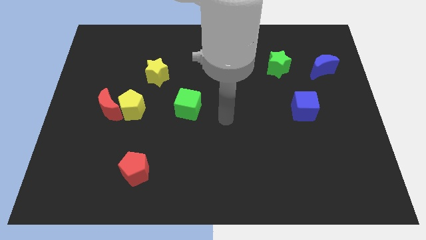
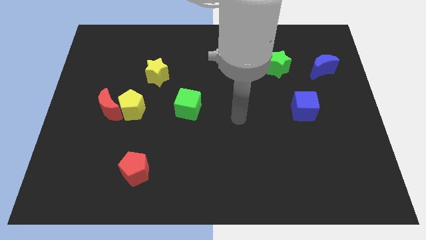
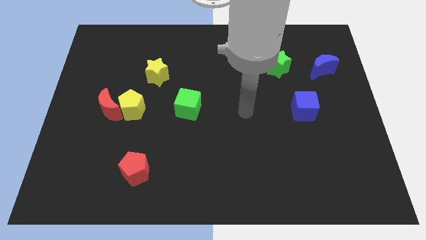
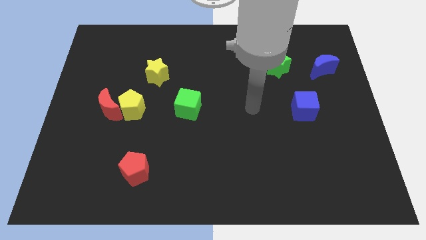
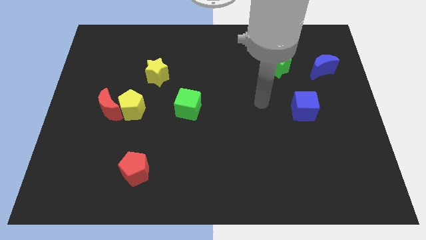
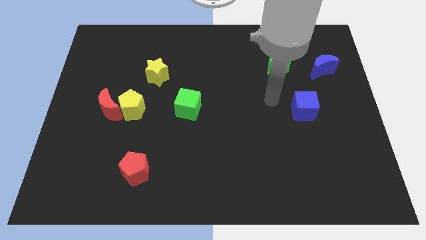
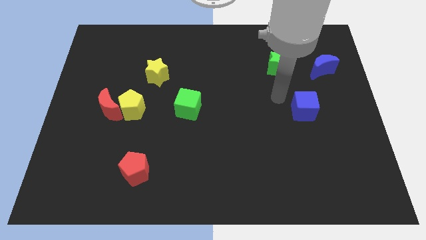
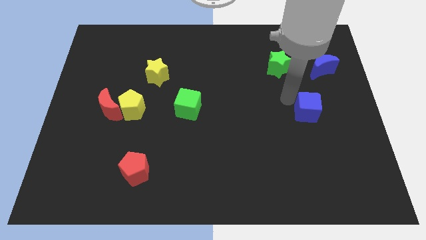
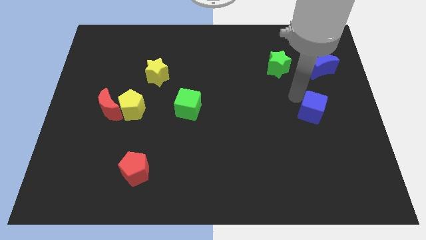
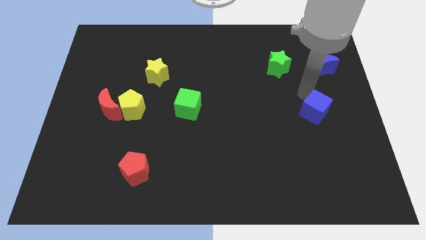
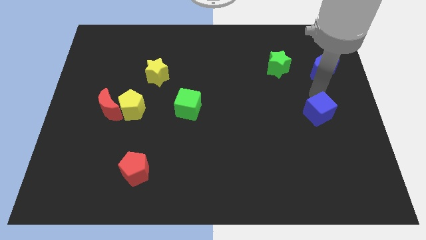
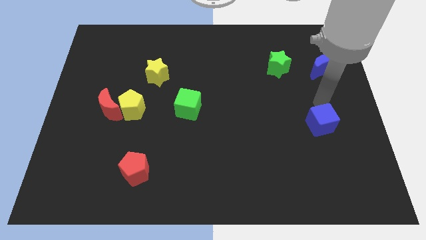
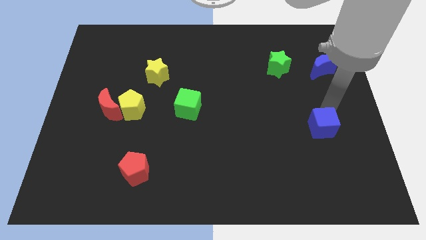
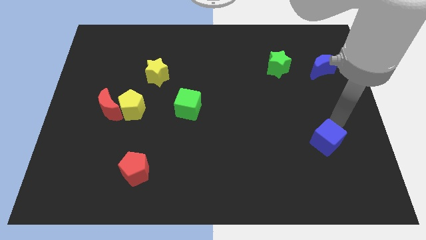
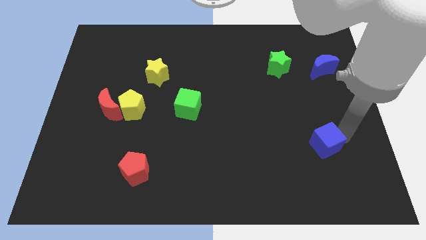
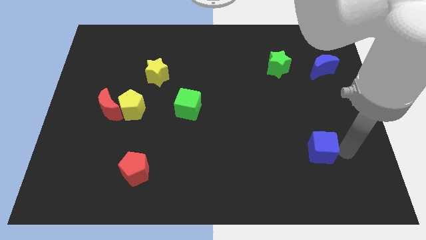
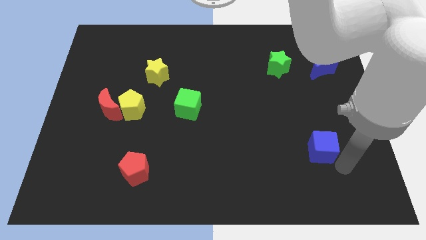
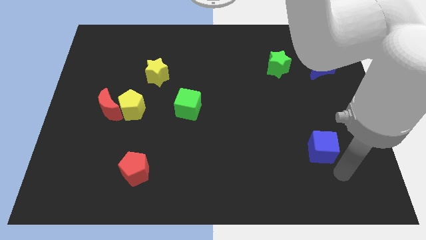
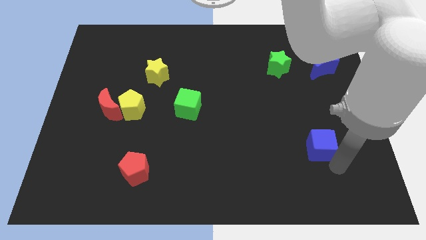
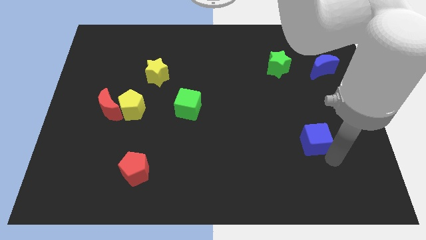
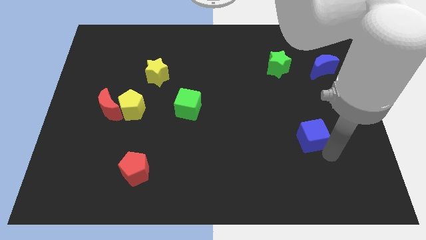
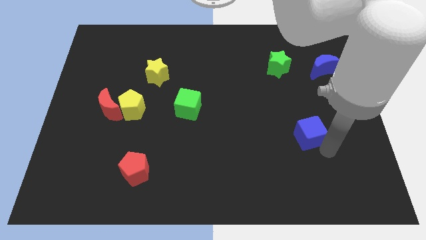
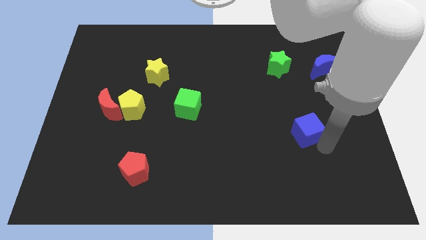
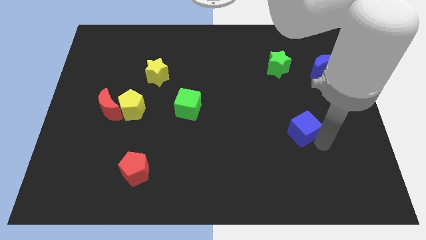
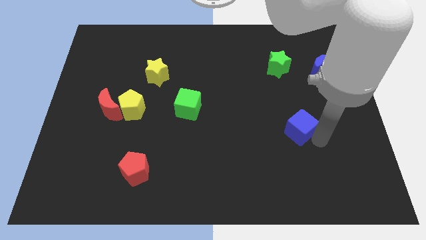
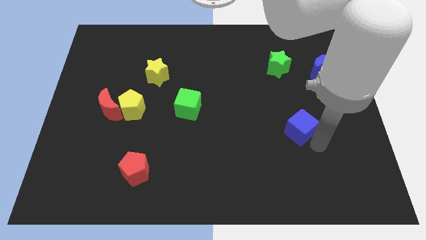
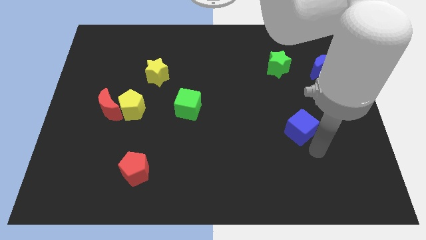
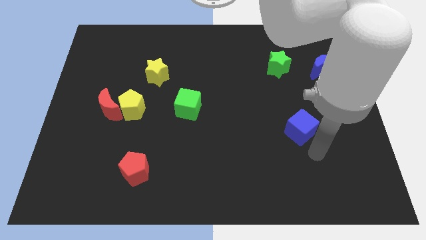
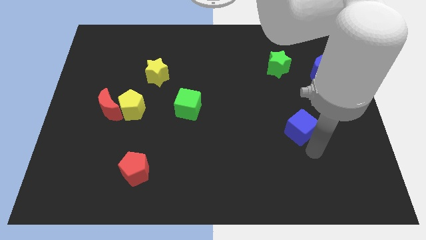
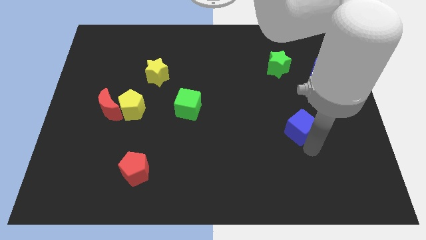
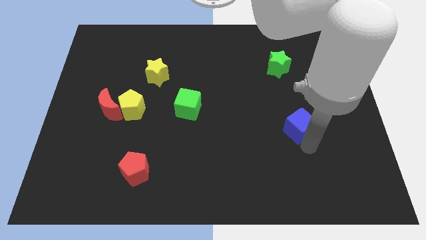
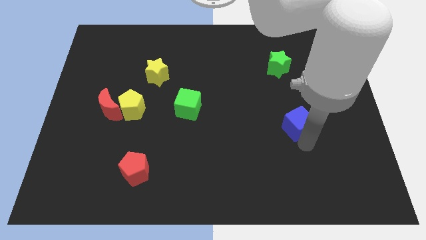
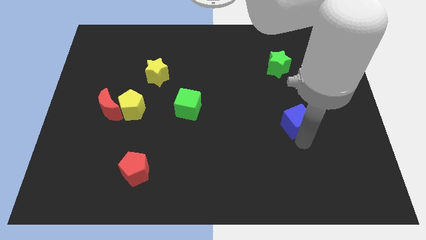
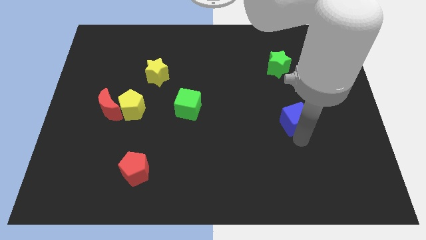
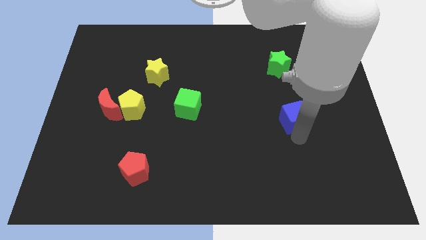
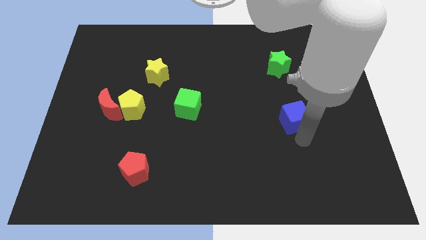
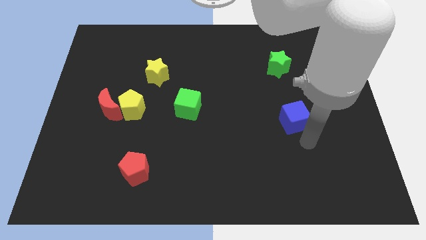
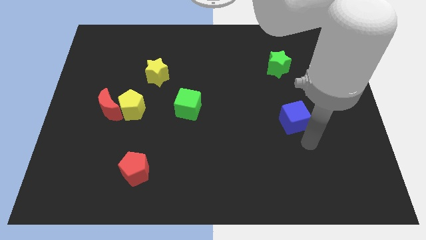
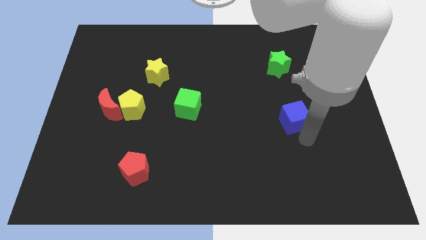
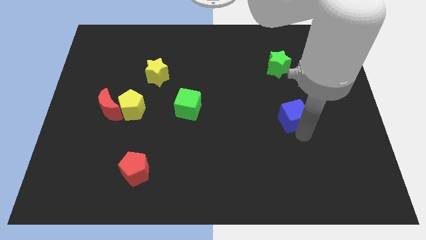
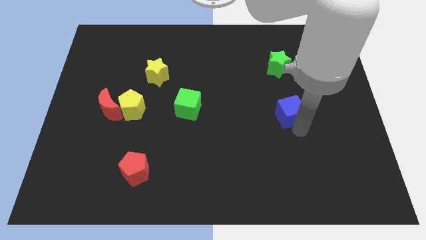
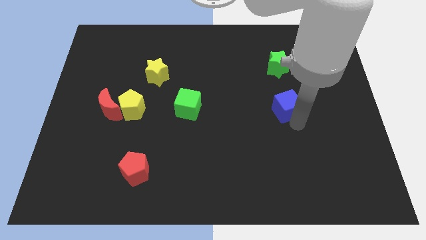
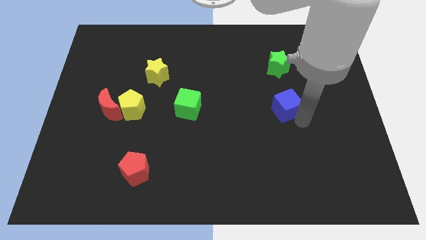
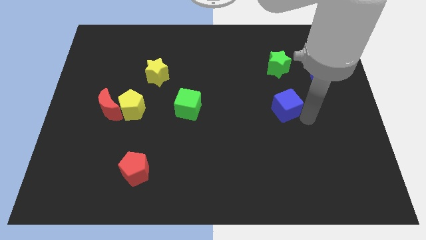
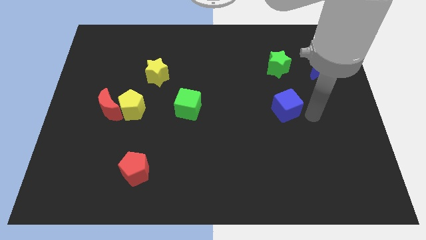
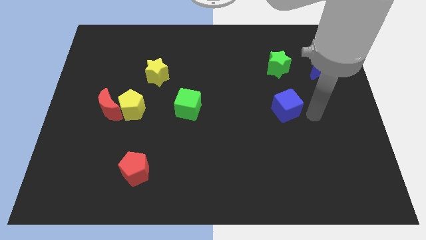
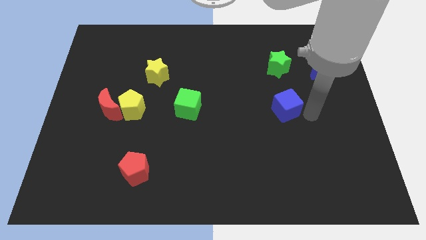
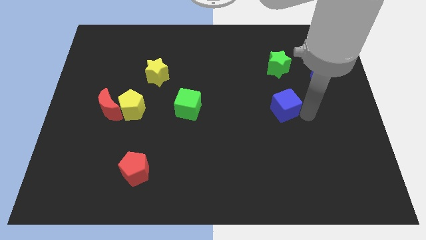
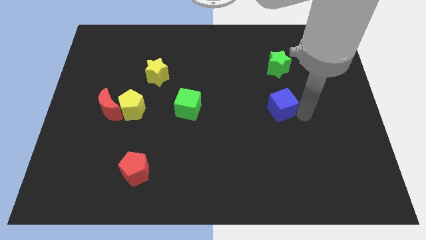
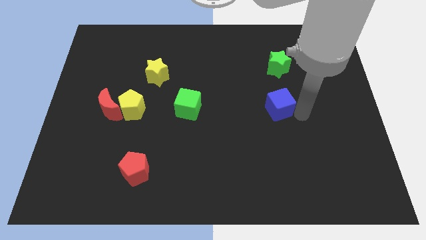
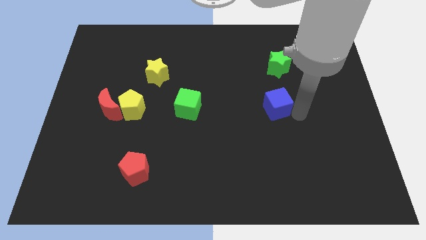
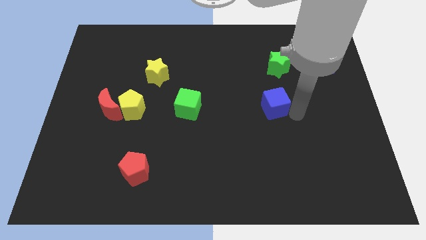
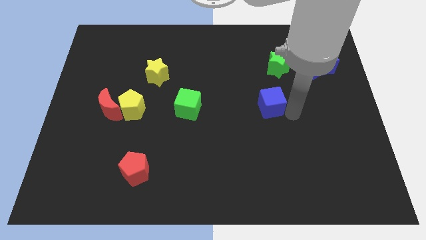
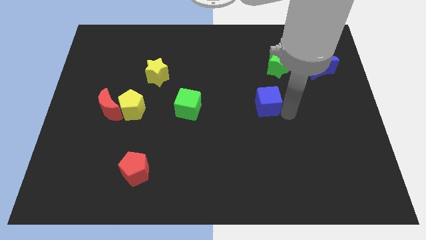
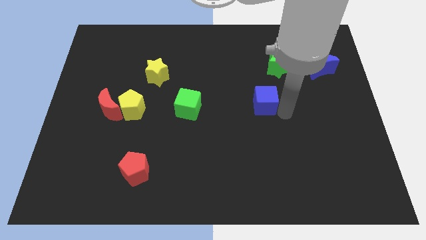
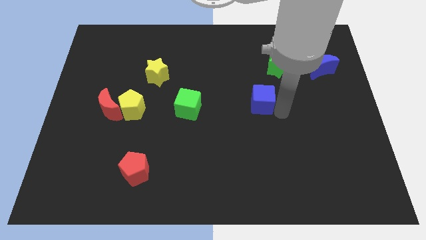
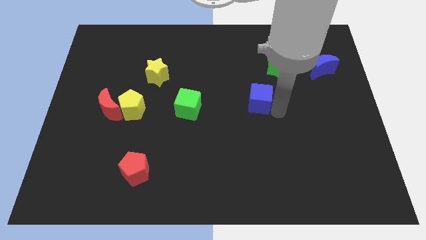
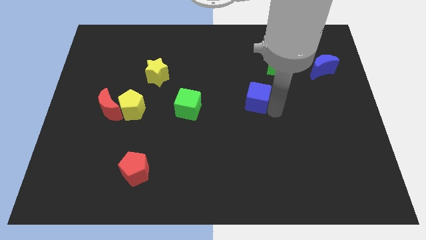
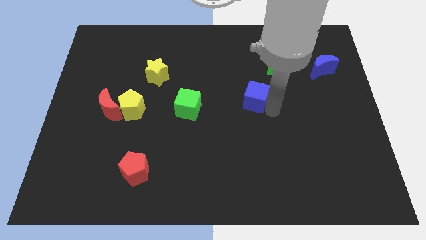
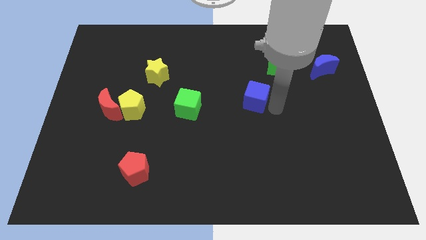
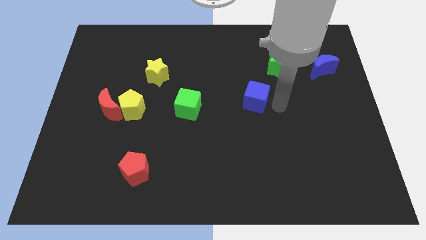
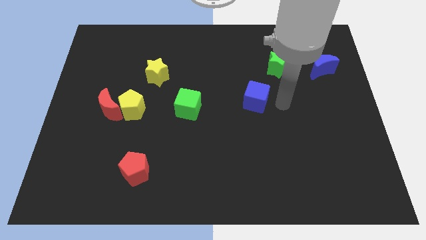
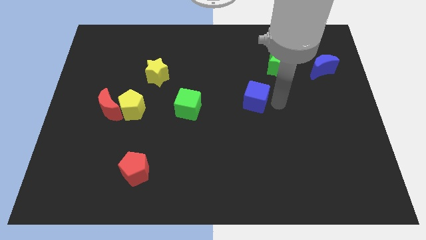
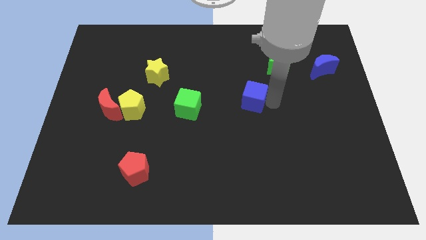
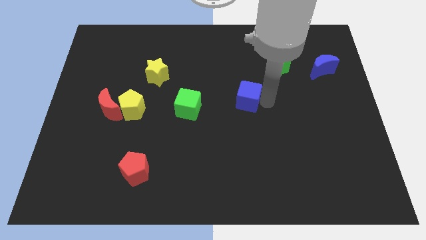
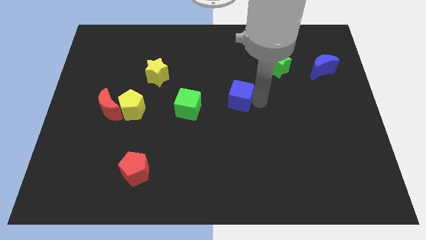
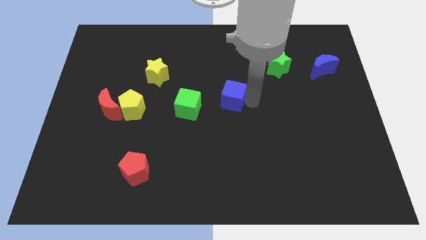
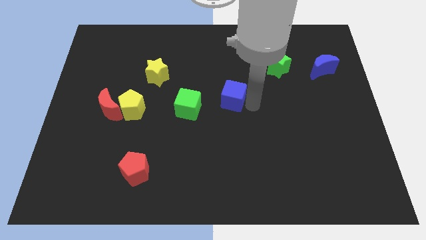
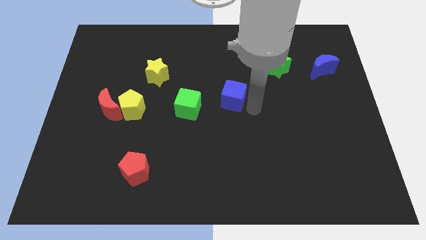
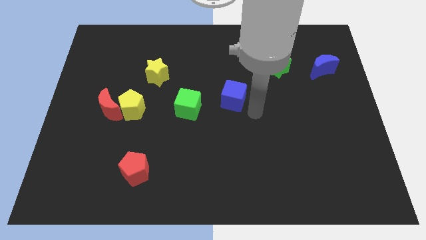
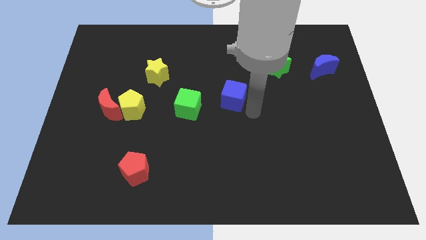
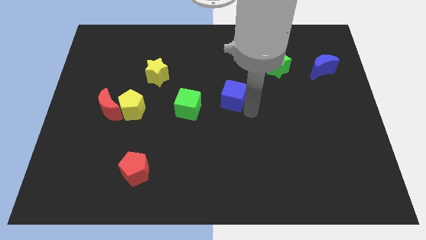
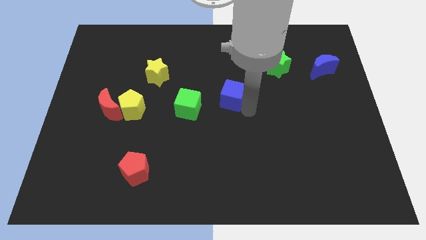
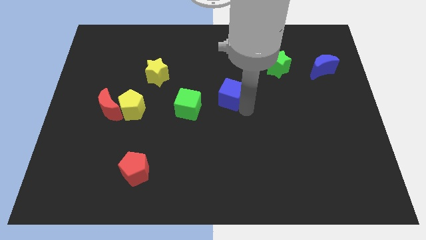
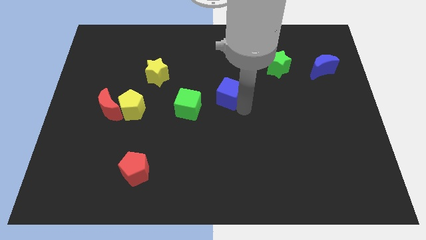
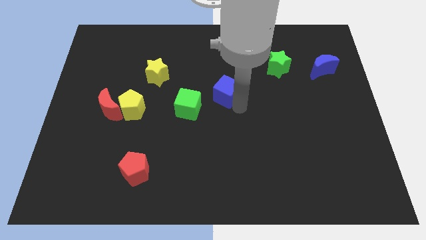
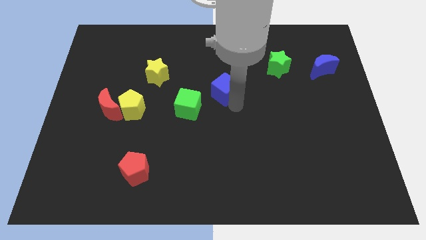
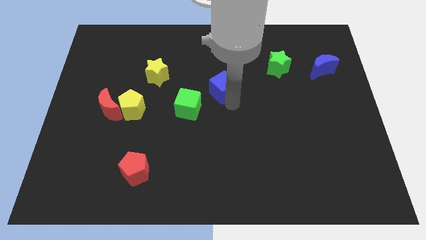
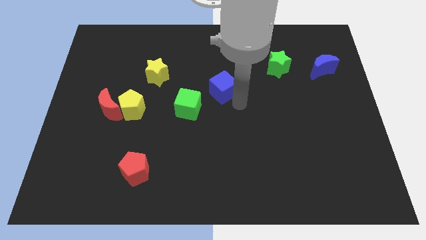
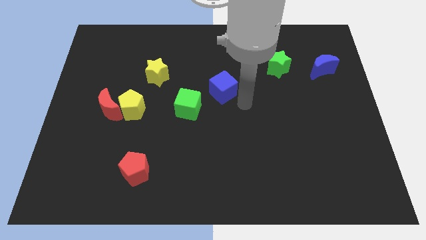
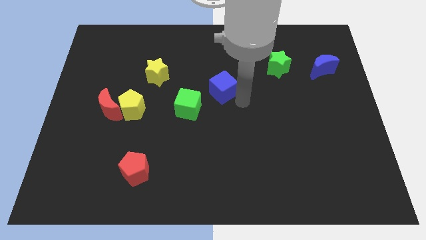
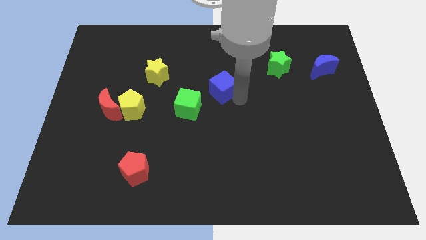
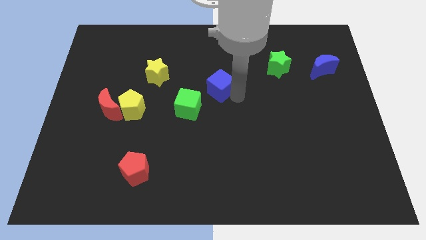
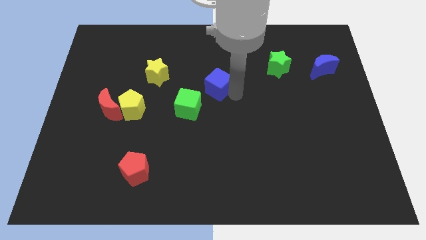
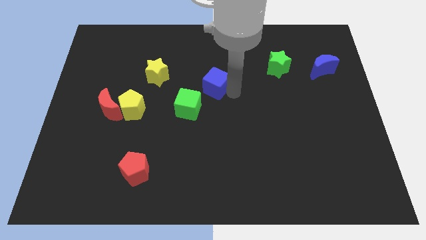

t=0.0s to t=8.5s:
move the blue cube just right of the yellow star
